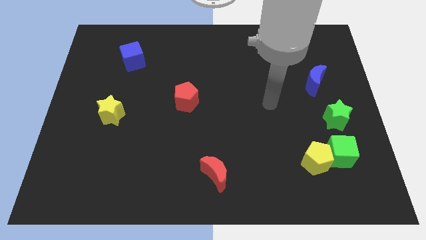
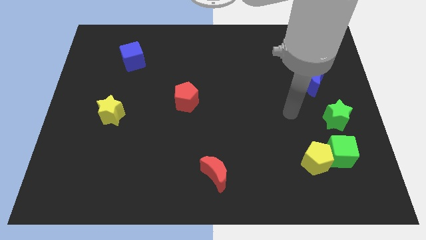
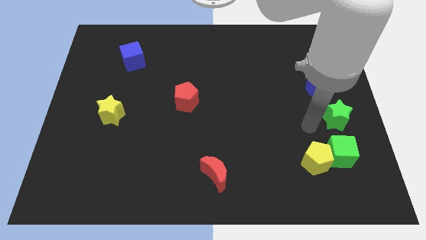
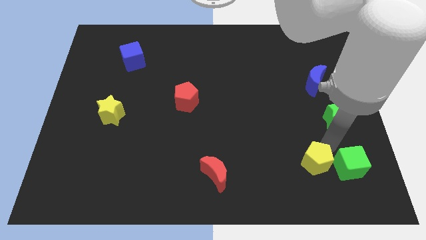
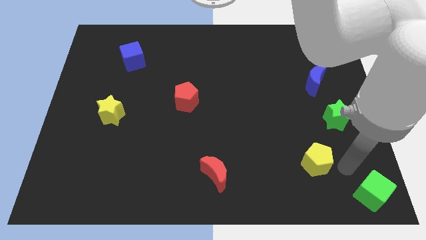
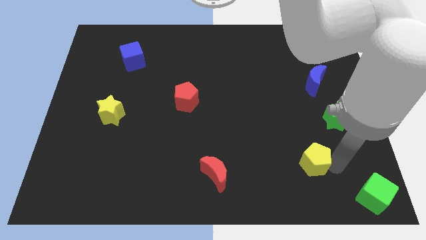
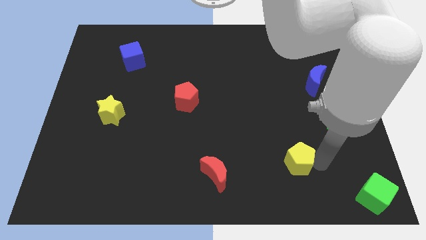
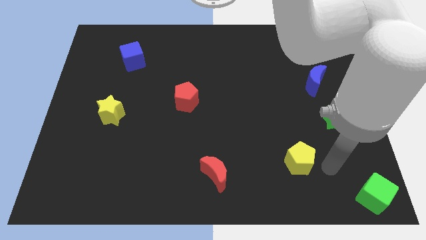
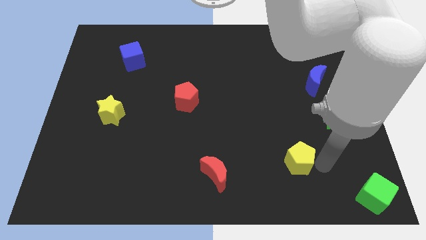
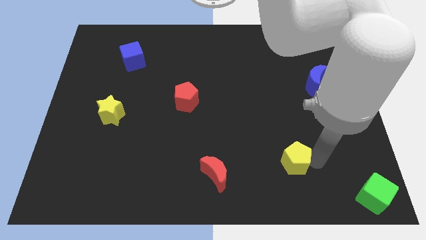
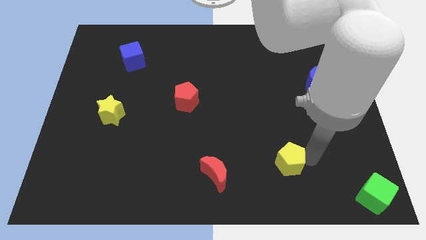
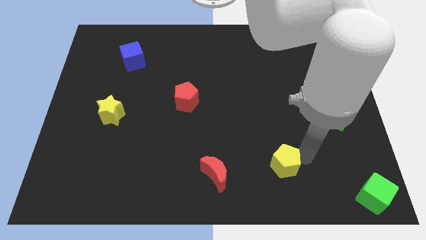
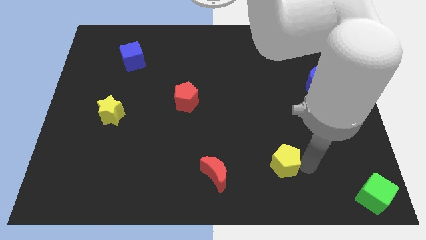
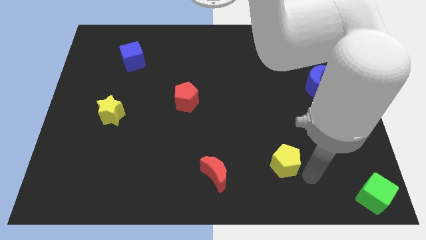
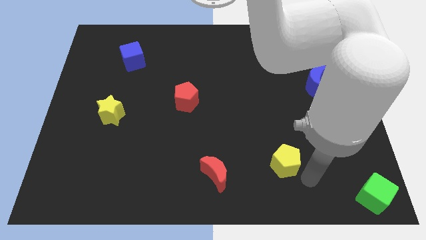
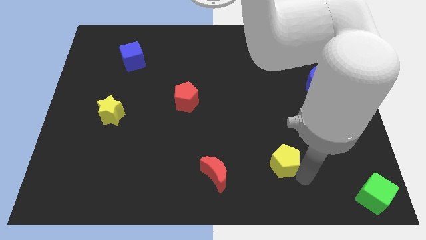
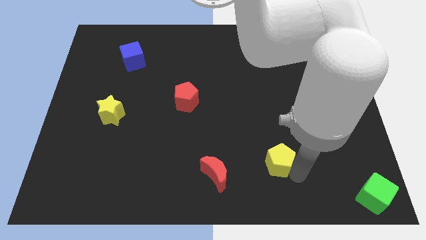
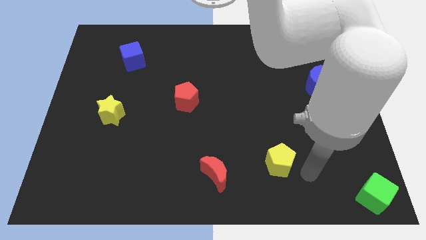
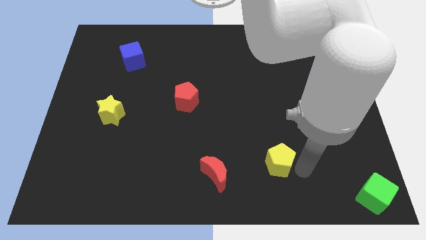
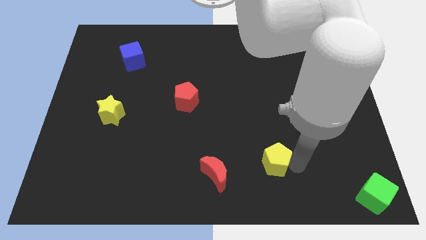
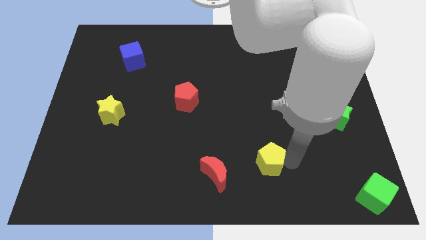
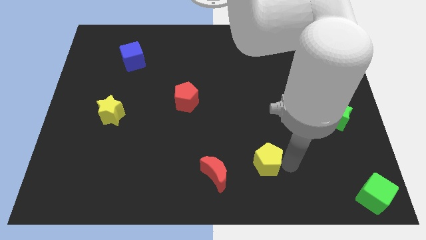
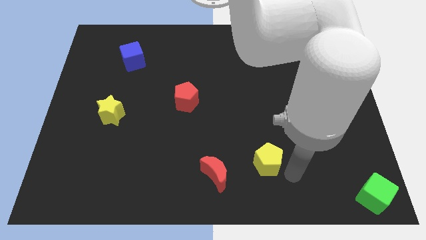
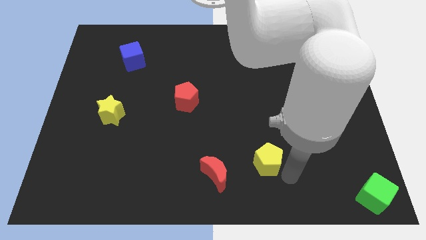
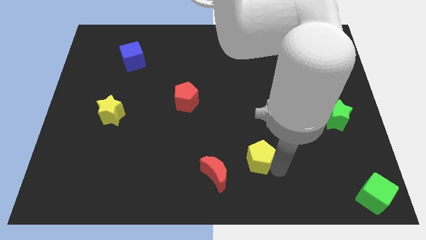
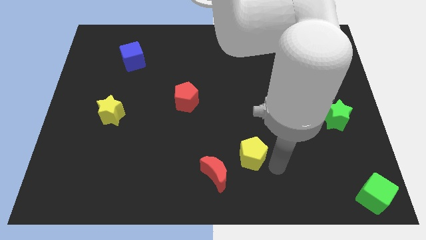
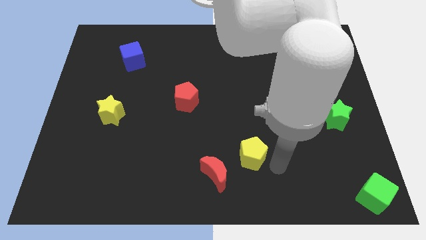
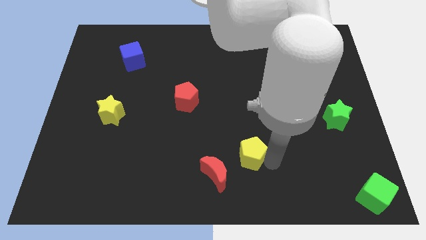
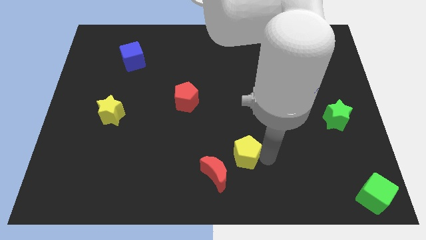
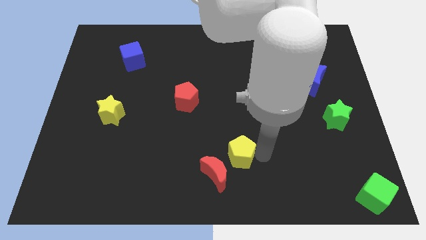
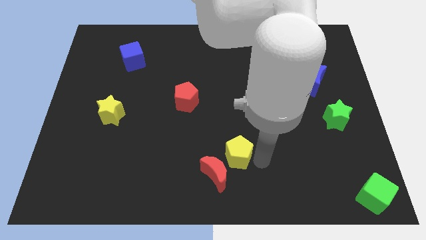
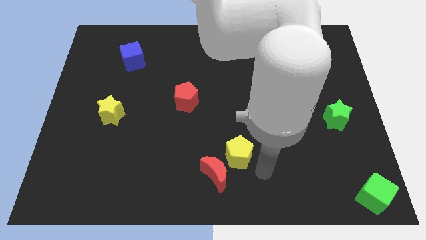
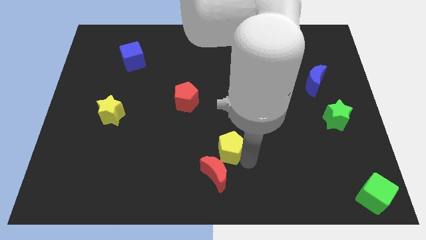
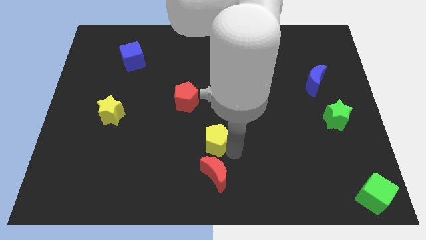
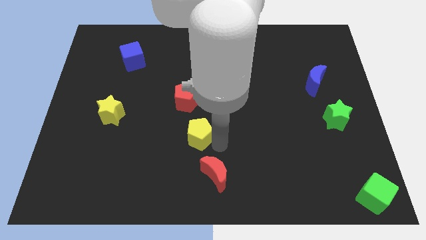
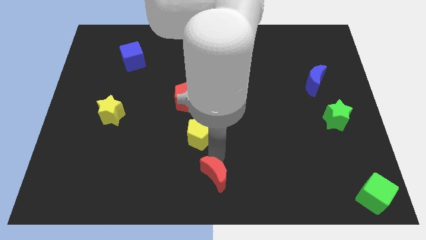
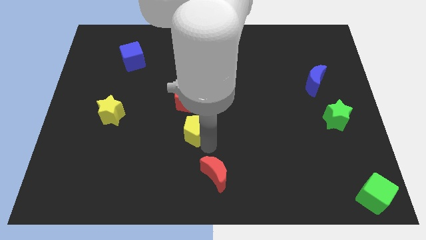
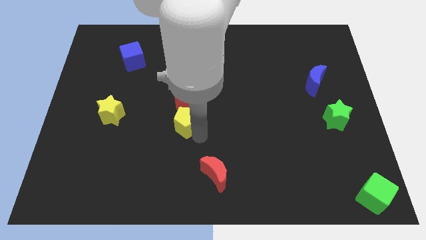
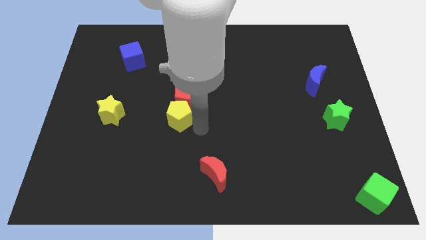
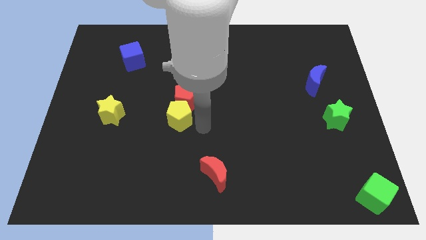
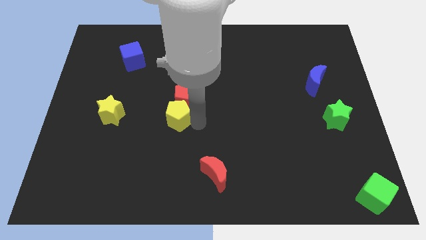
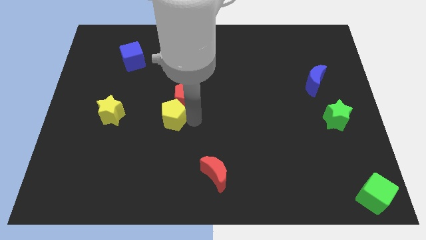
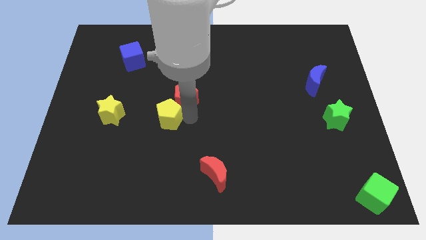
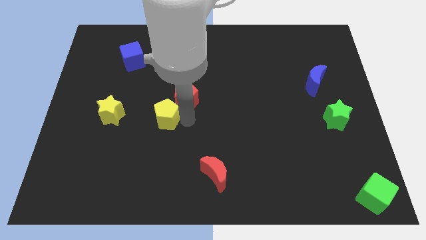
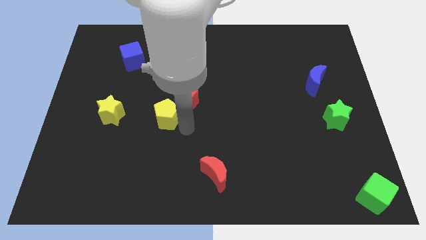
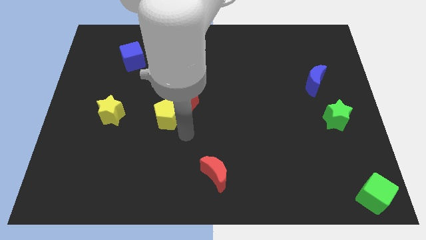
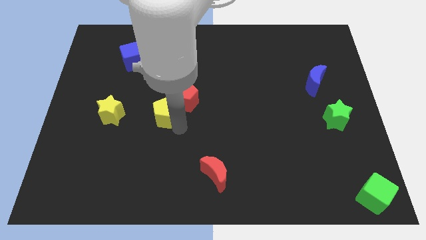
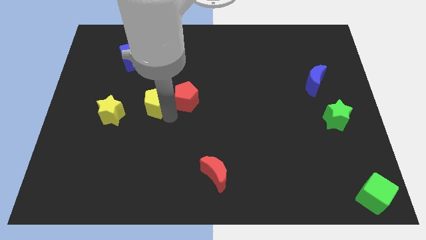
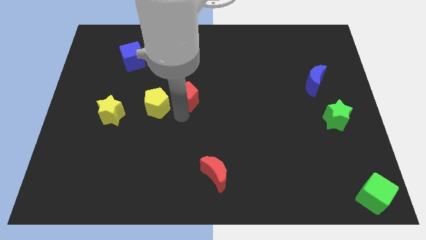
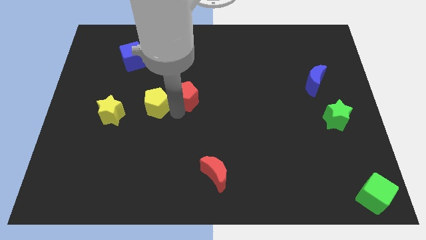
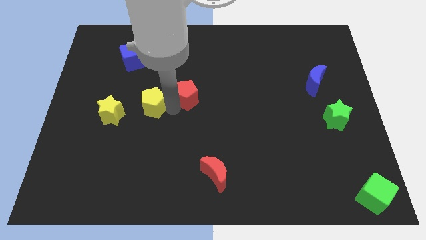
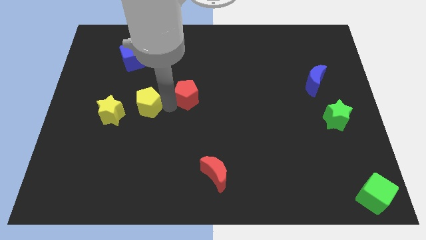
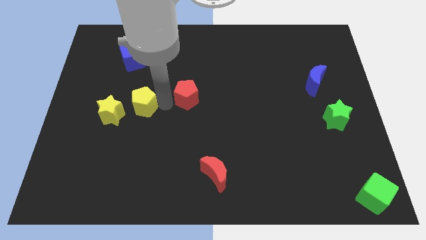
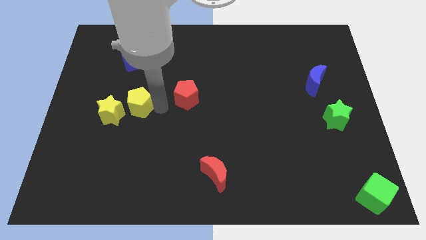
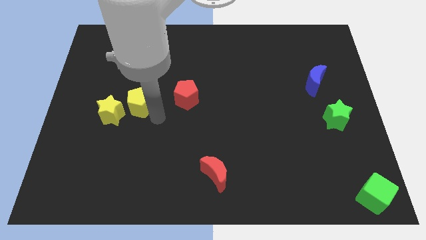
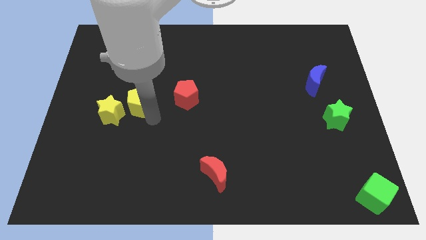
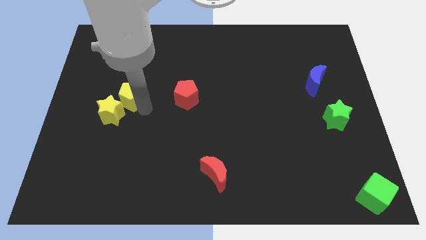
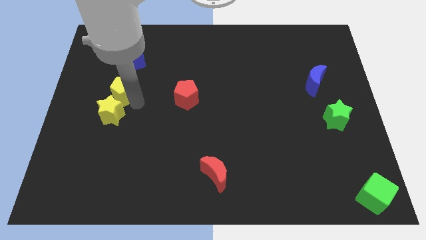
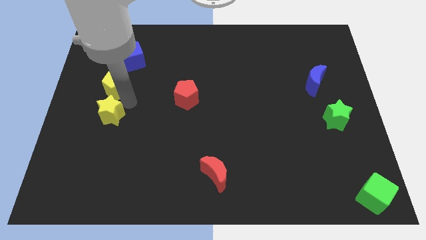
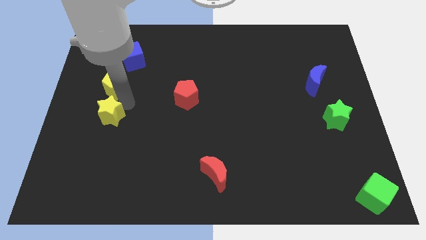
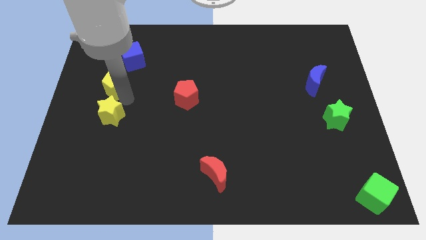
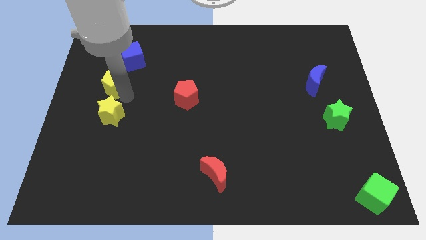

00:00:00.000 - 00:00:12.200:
push the yellow pentagon to the bottom left of the blue cube
